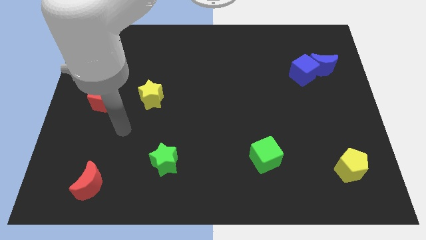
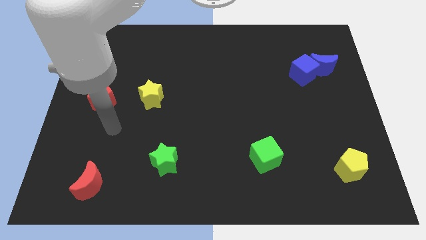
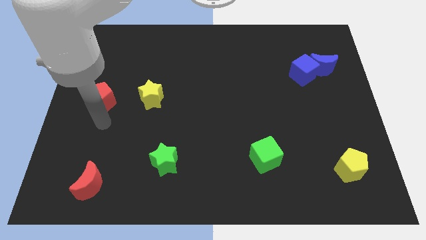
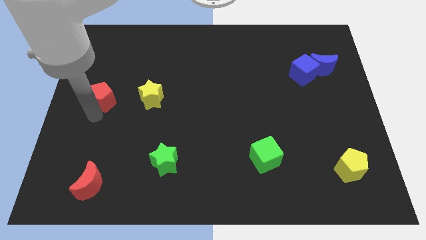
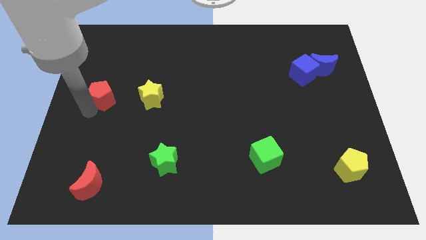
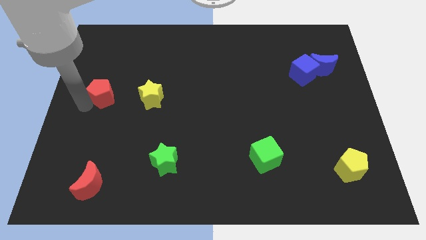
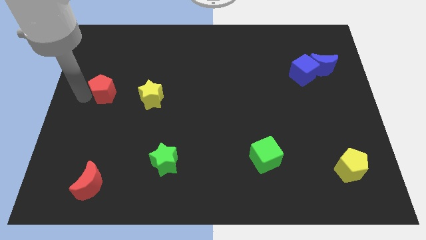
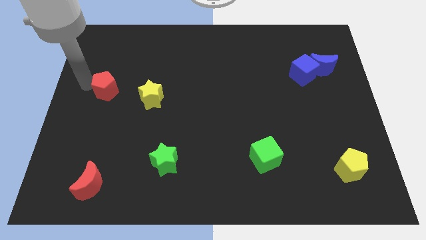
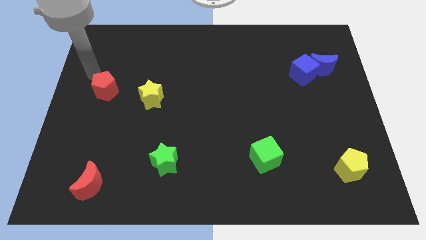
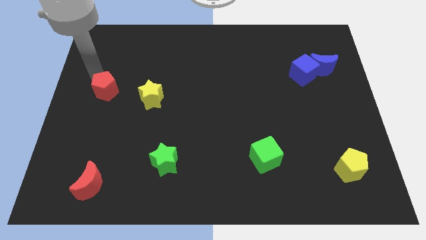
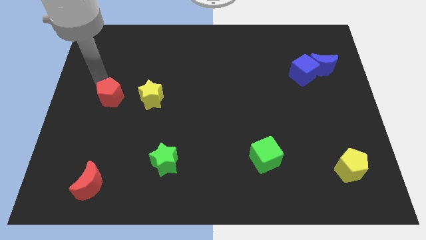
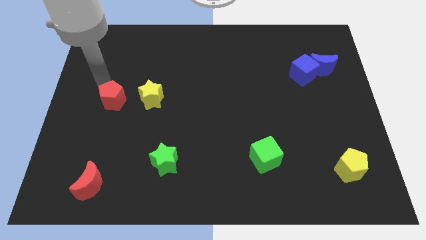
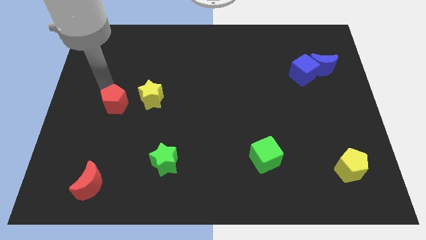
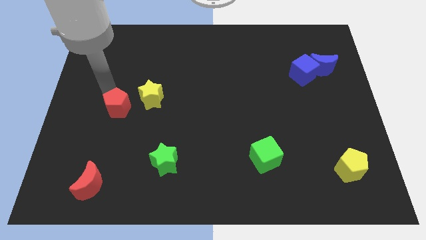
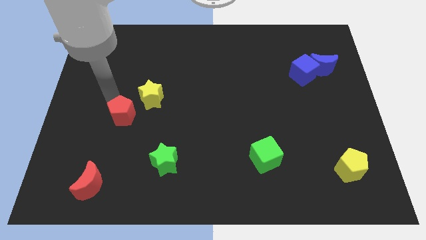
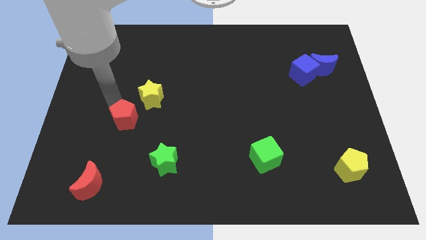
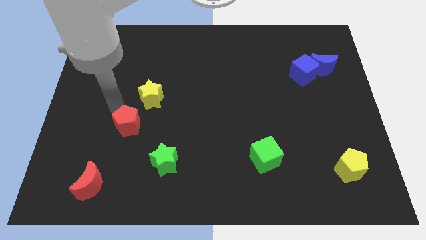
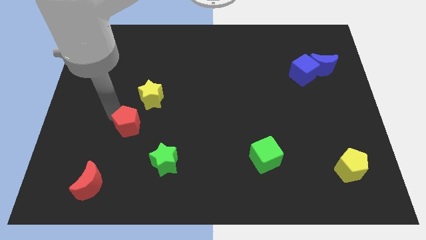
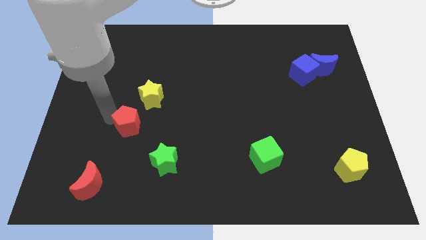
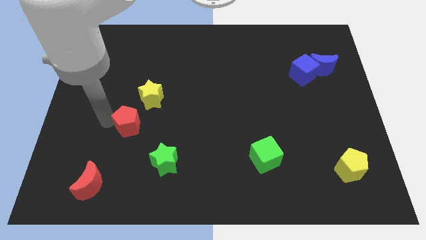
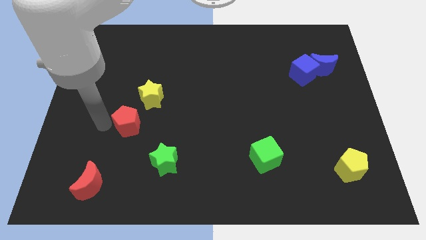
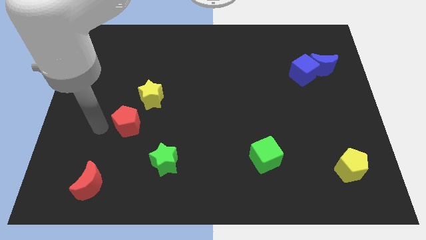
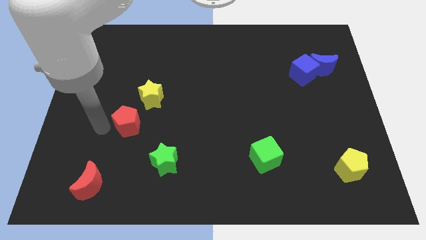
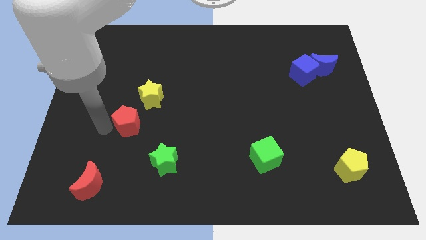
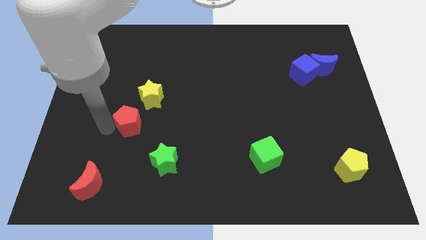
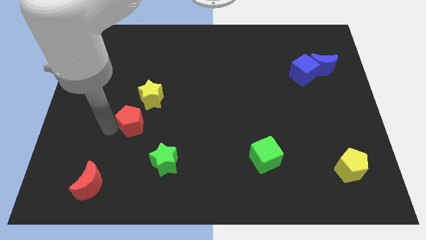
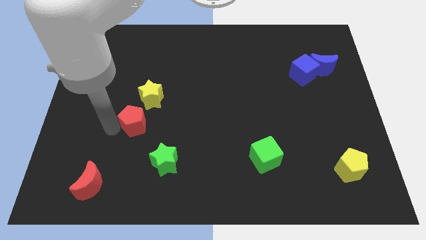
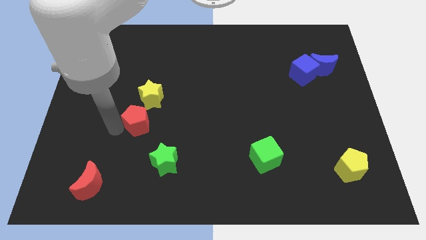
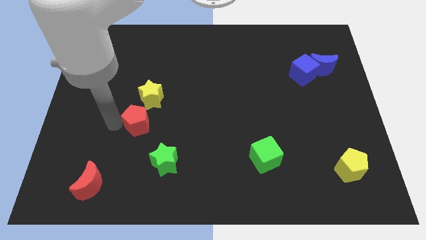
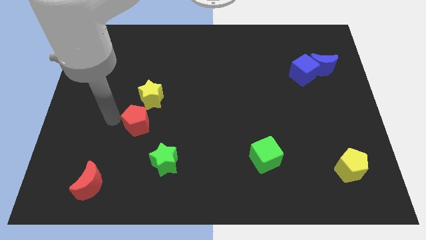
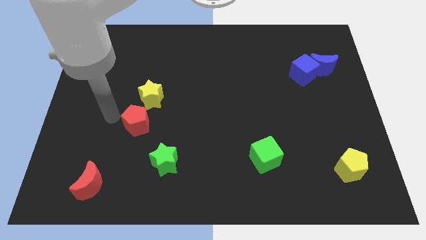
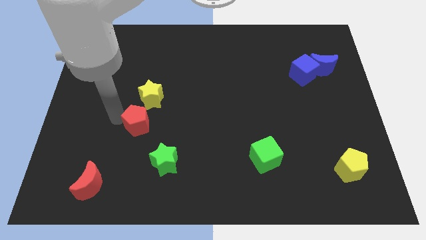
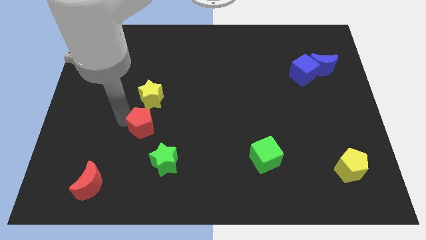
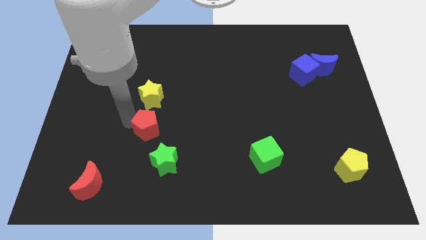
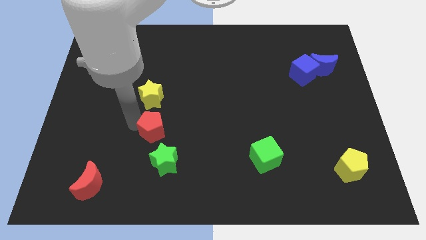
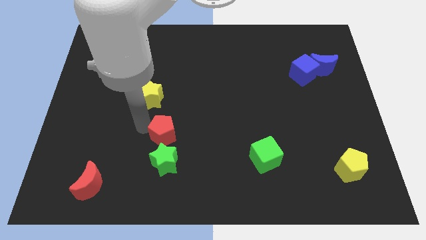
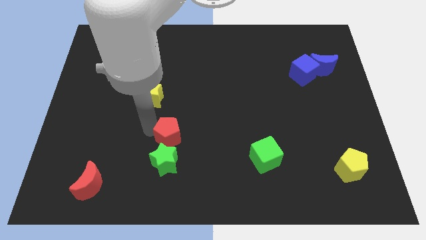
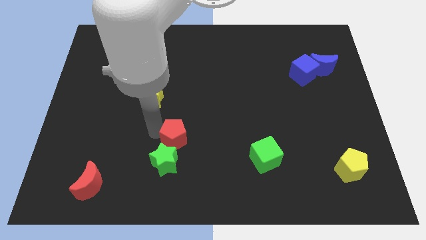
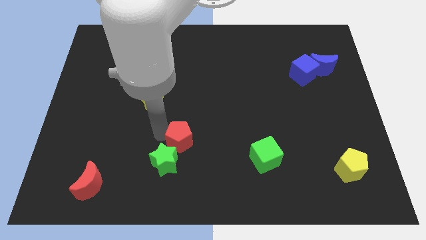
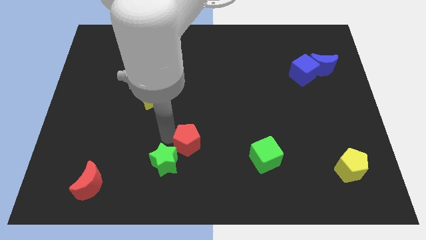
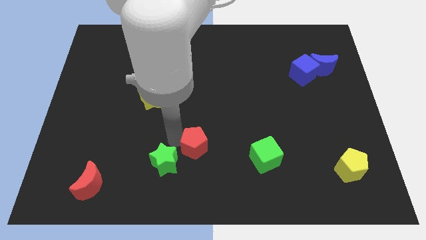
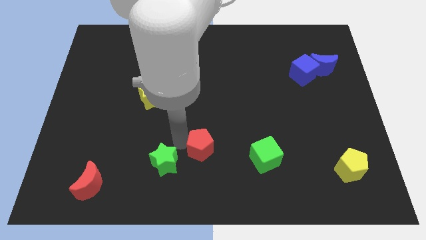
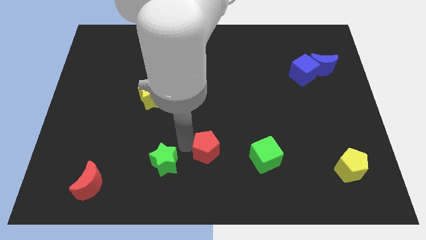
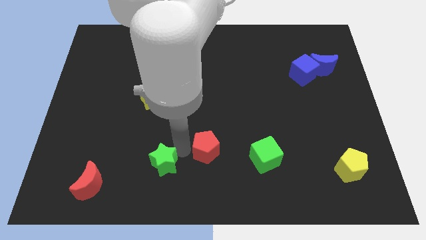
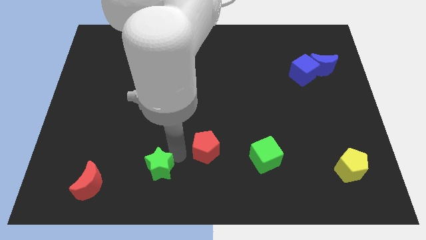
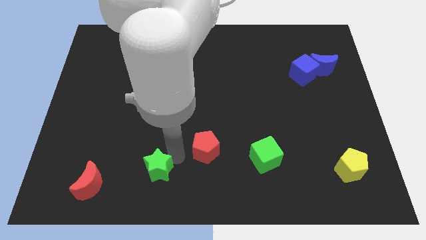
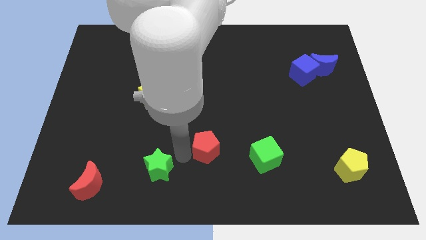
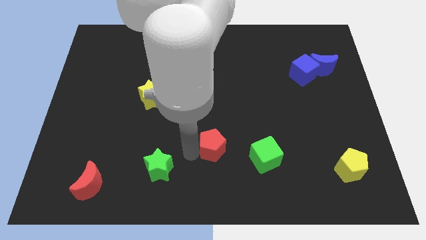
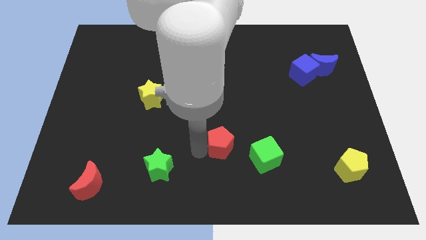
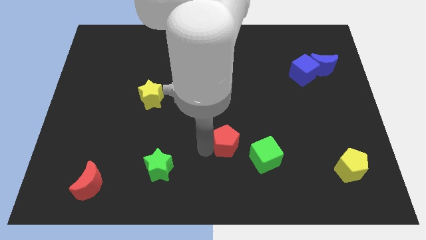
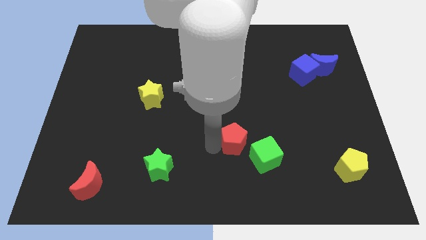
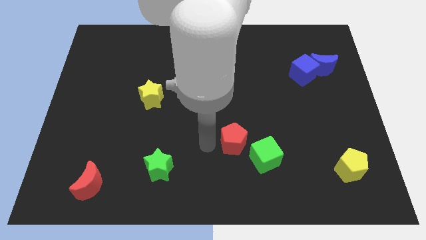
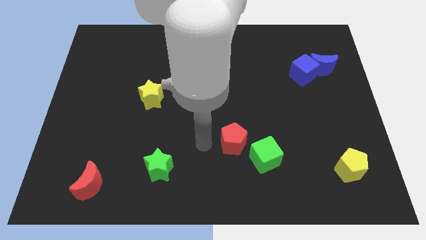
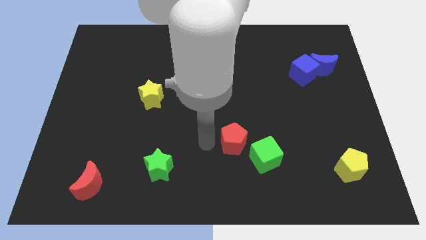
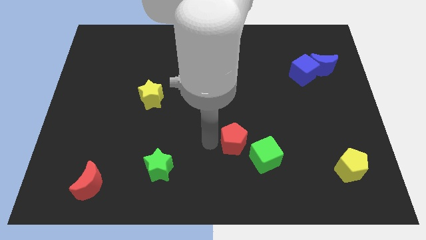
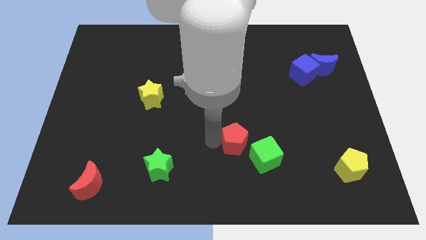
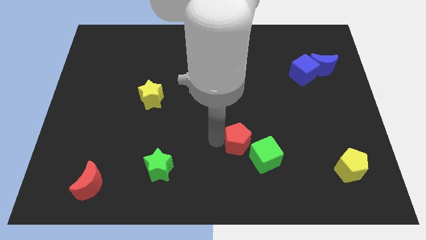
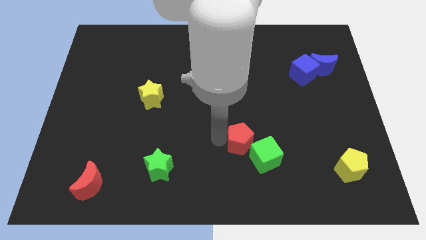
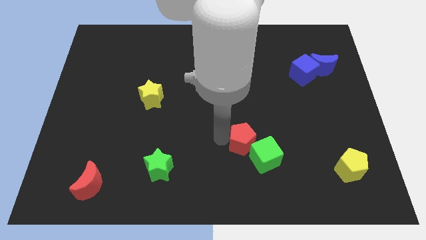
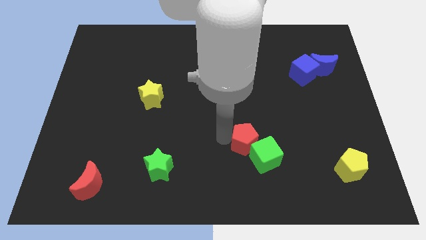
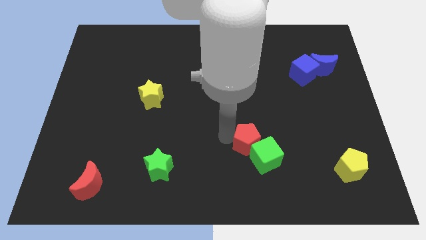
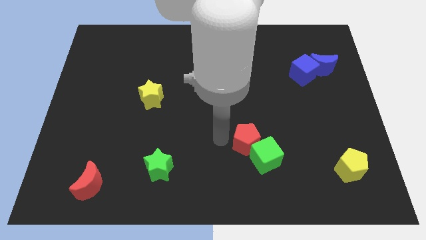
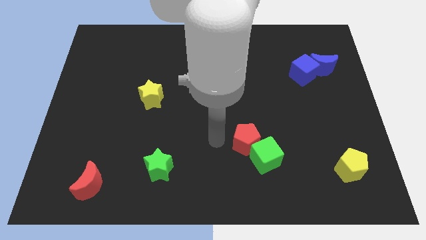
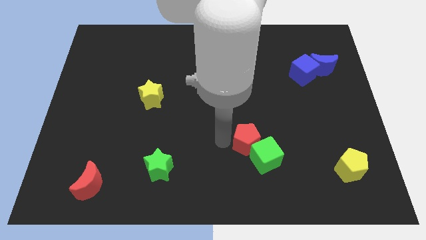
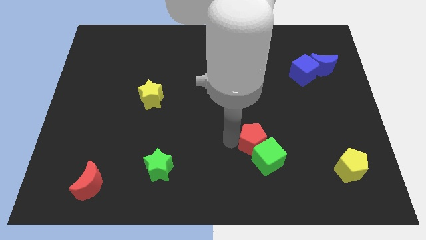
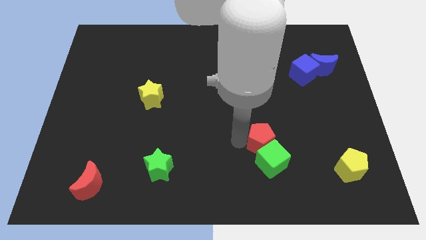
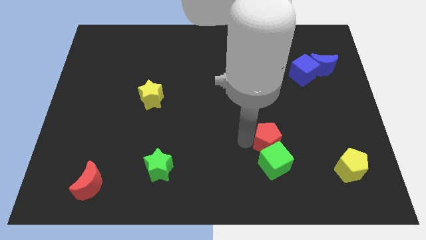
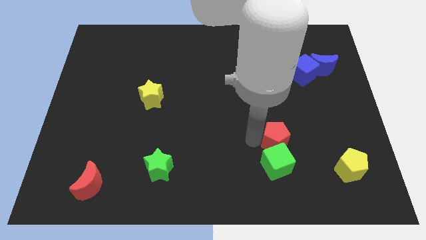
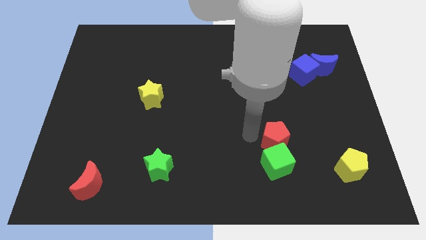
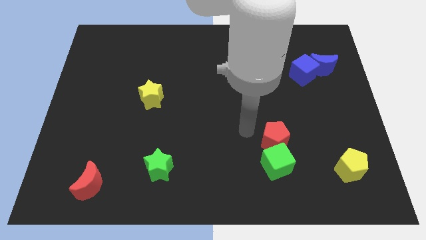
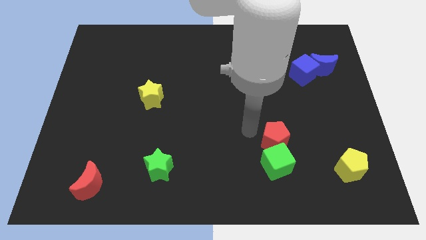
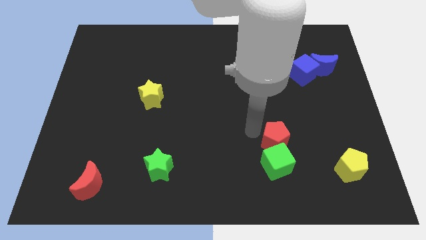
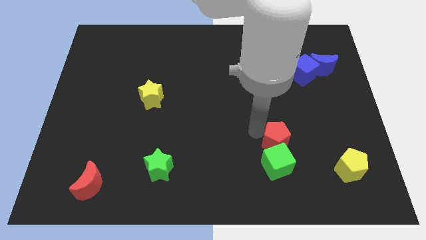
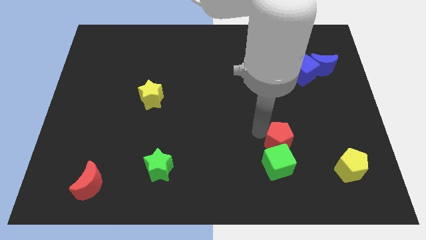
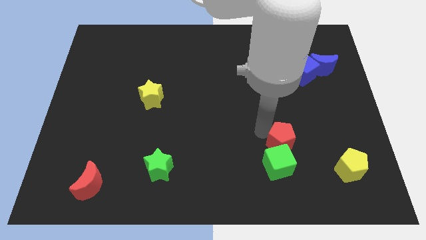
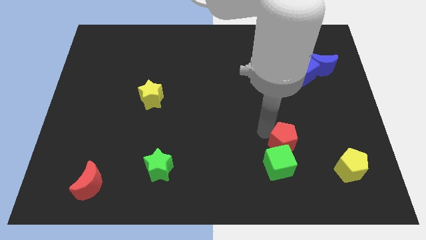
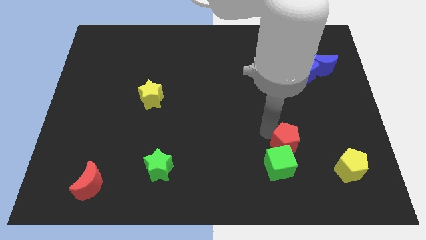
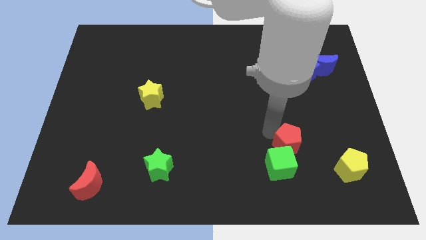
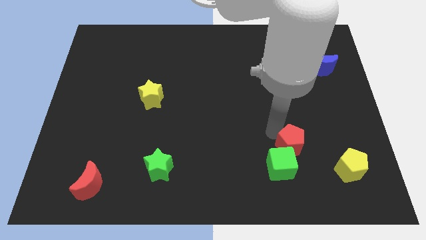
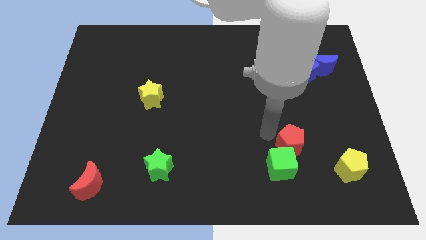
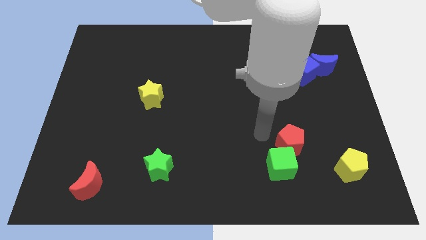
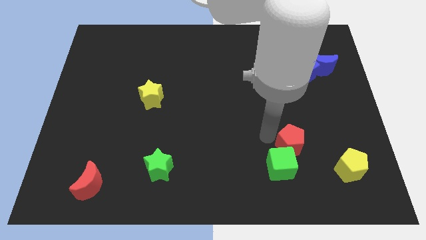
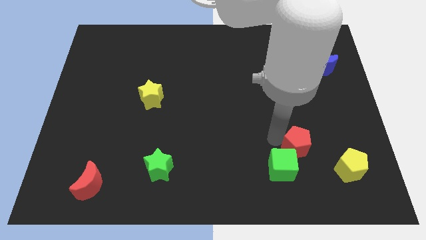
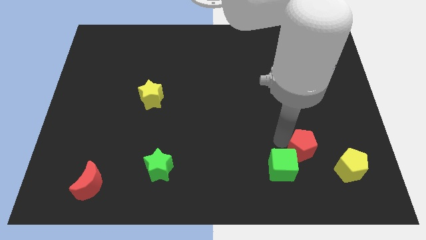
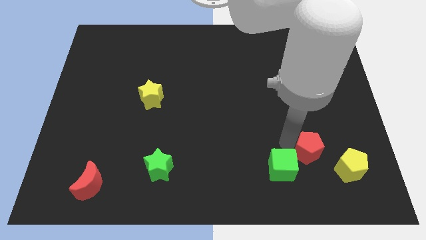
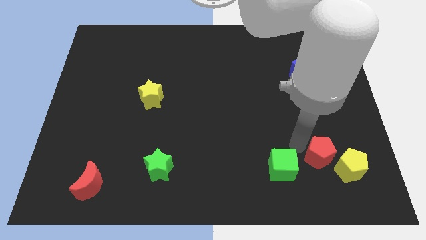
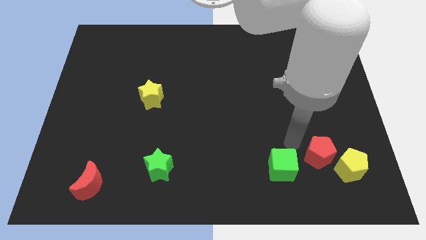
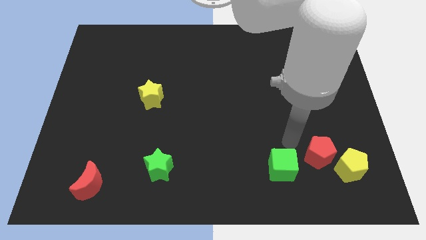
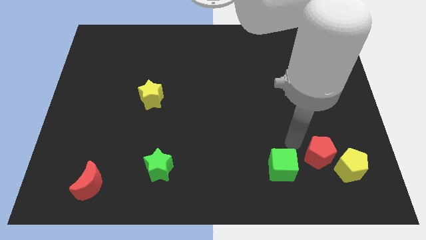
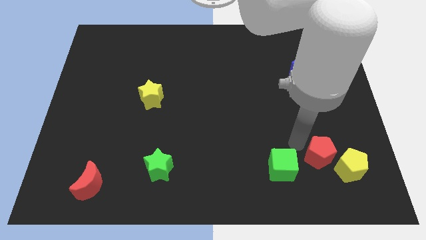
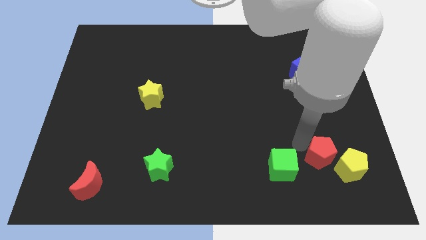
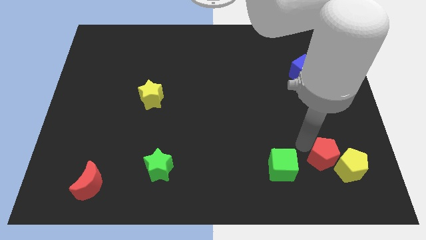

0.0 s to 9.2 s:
push the red pentagon to the yellow pentagon
